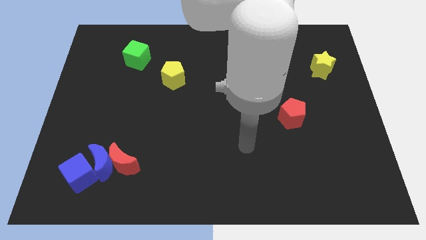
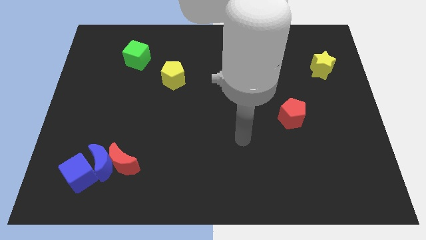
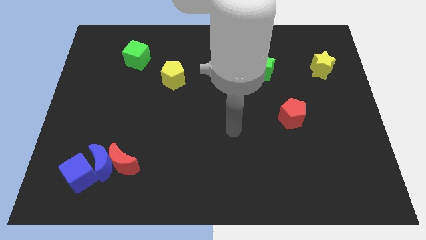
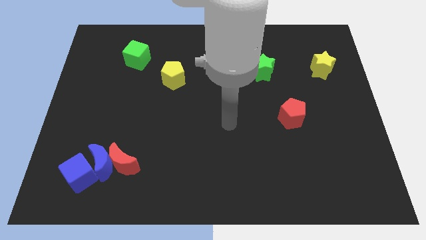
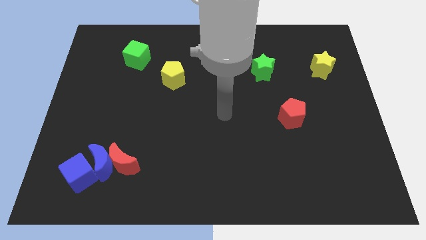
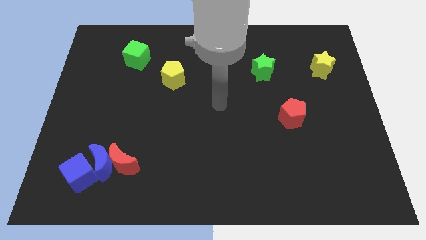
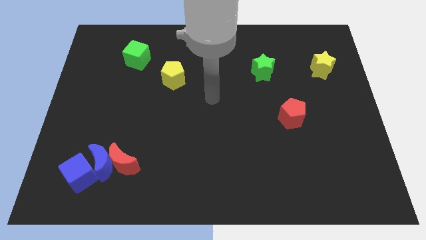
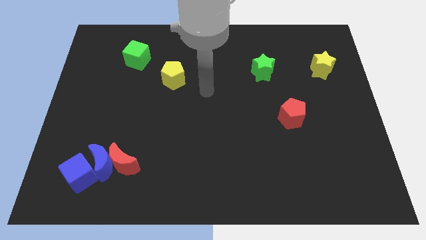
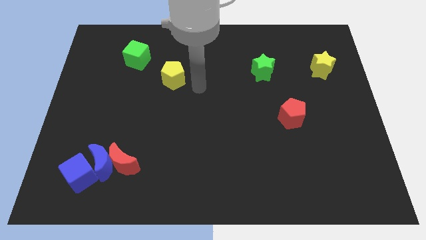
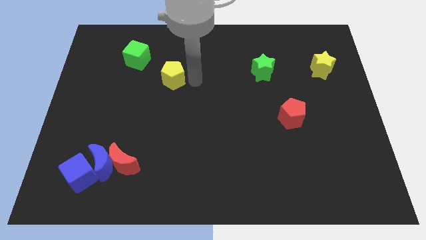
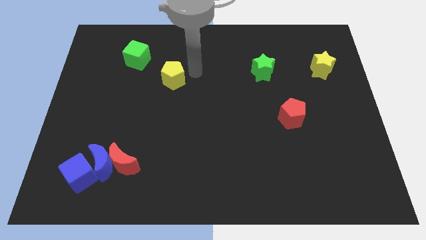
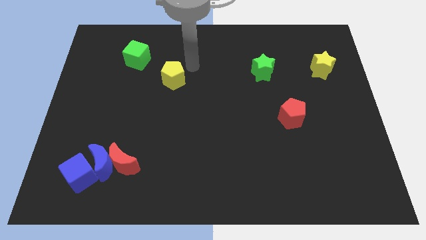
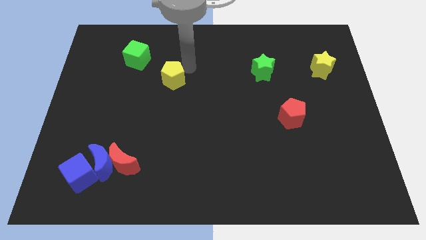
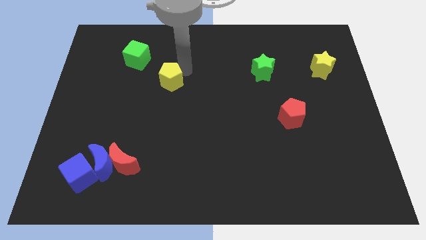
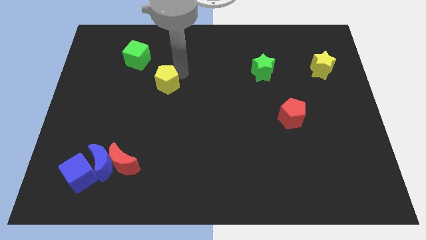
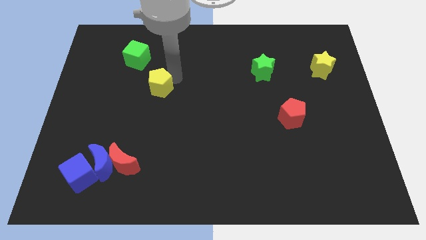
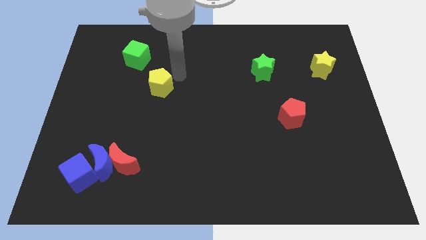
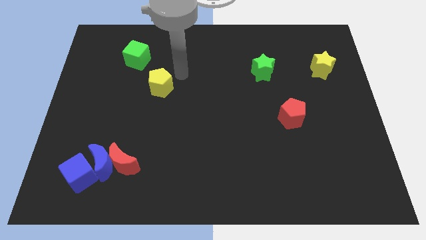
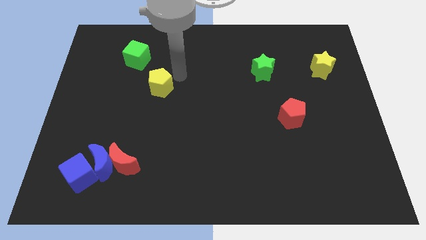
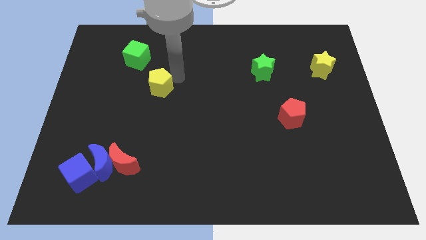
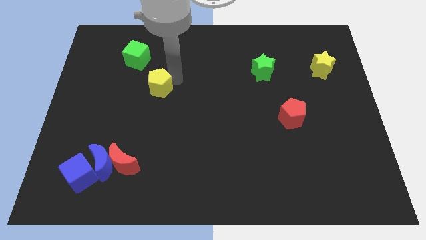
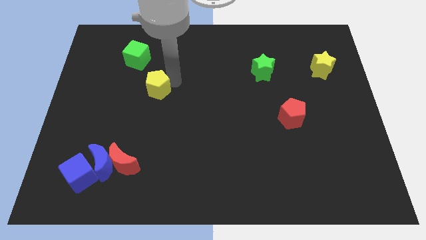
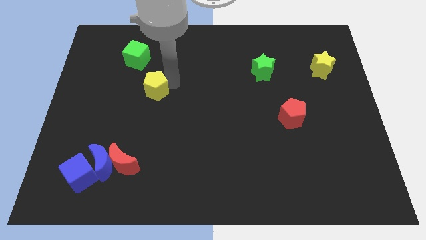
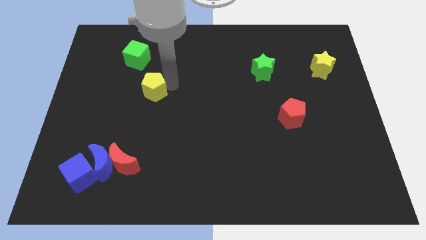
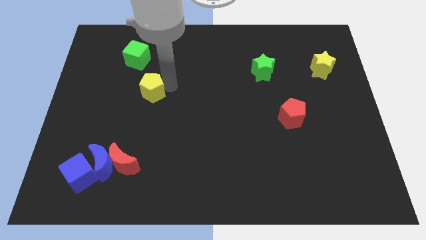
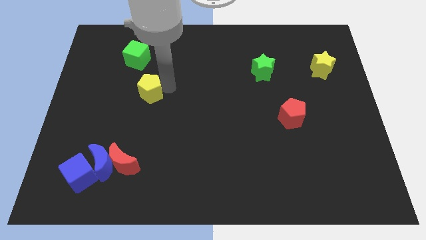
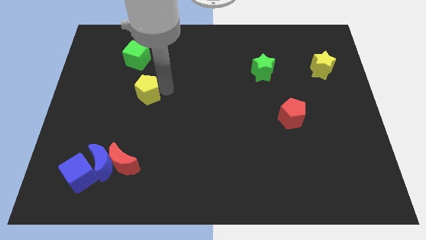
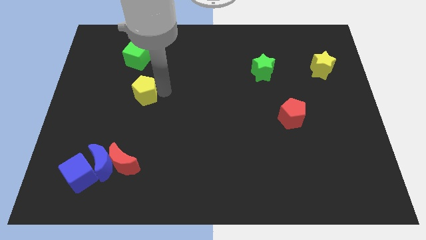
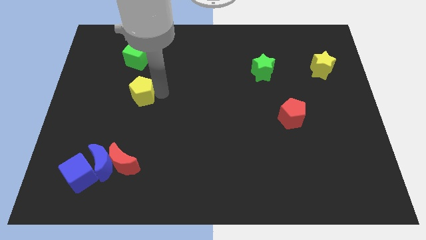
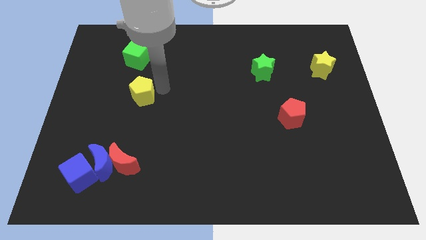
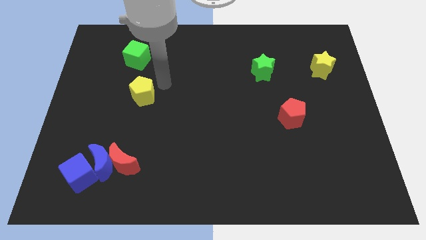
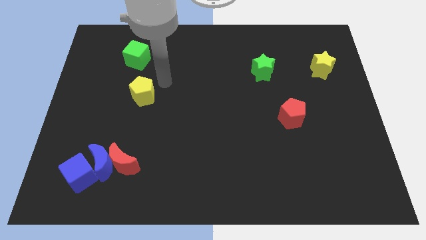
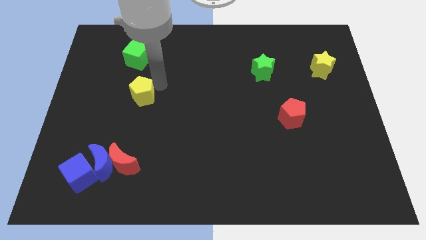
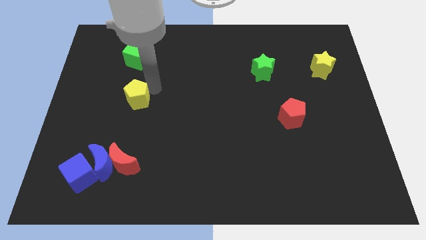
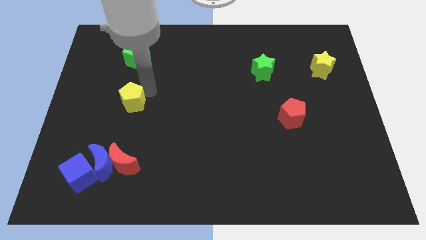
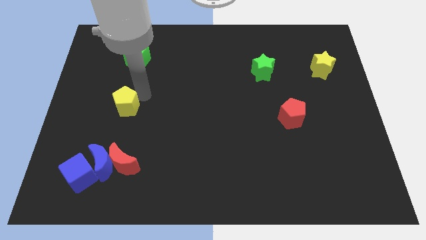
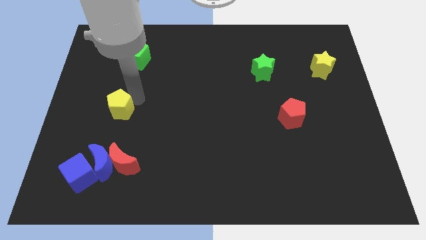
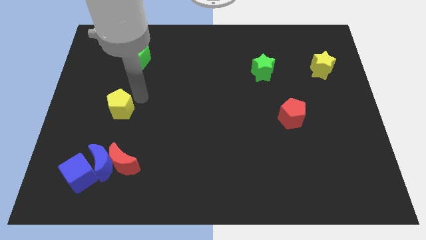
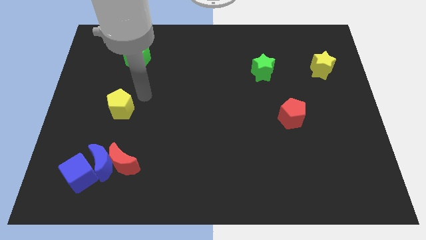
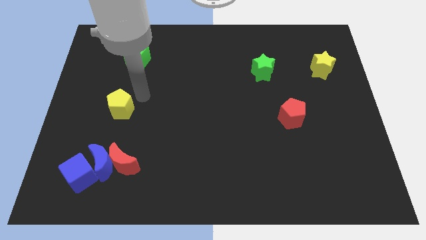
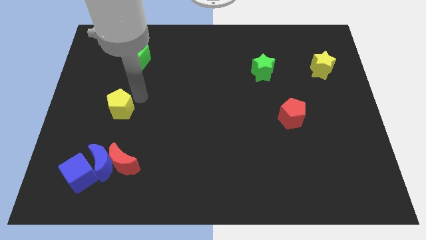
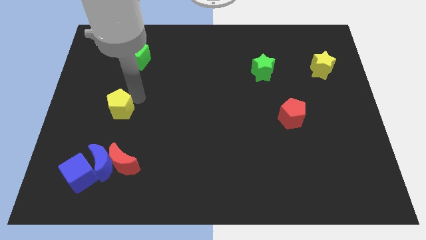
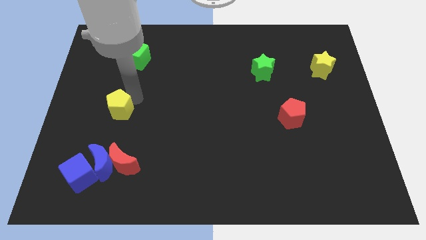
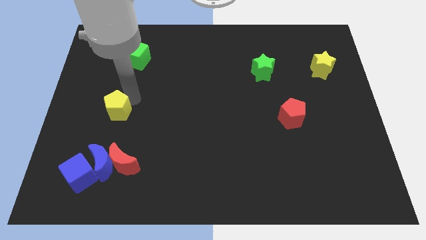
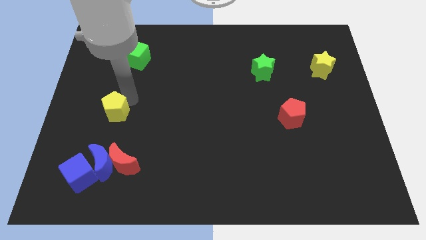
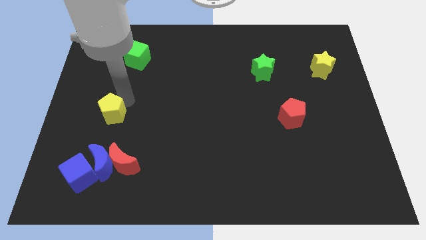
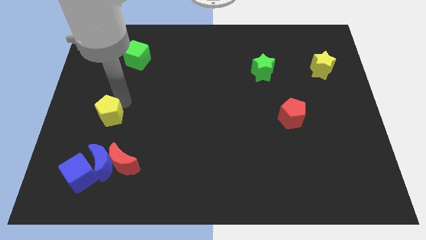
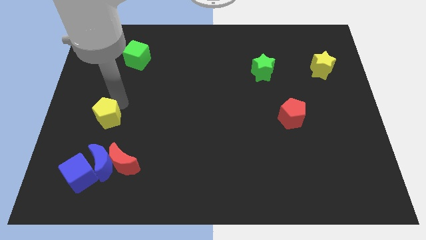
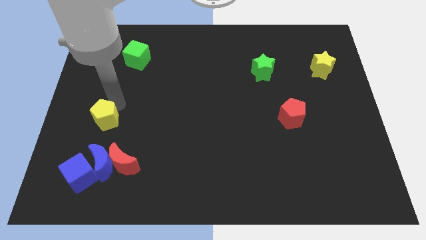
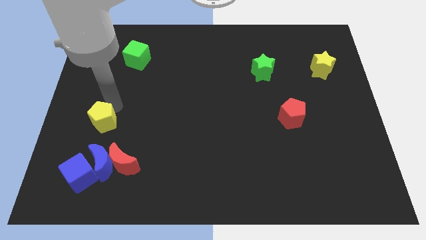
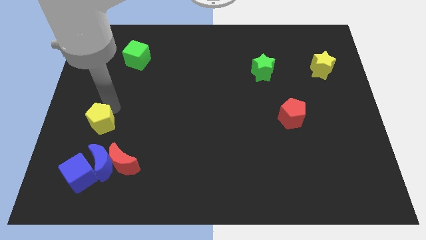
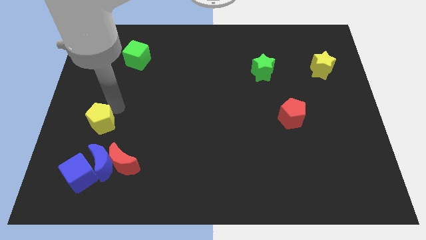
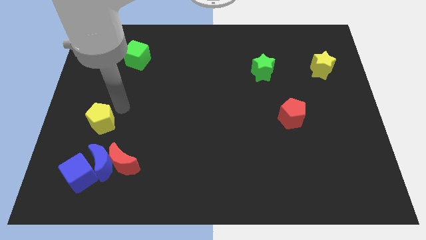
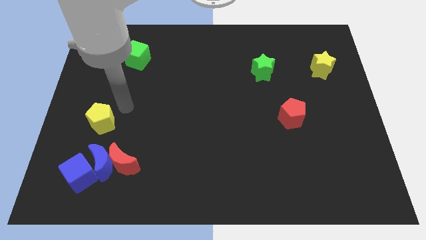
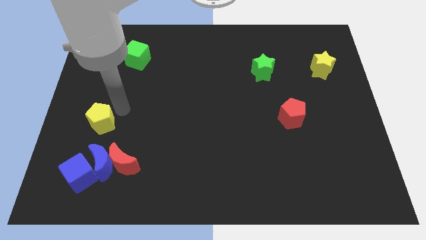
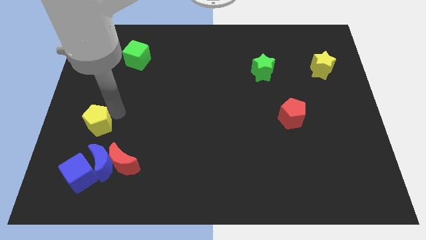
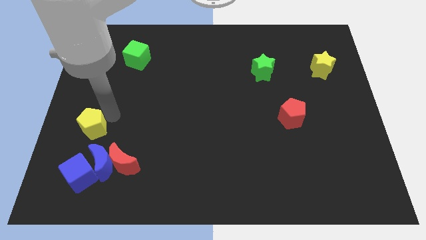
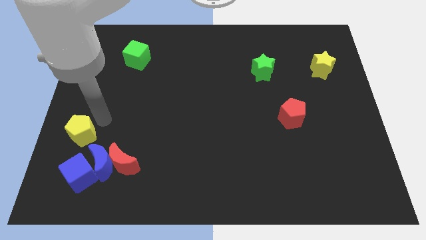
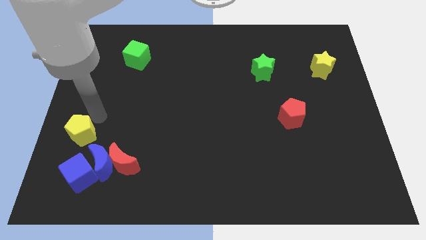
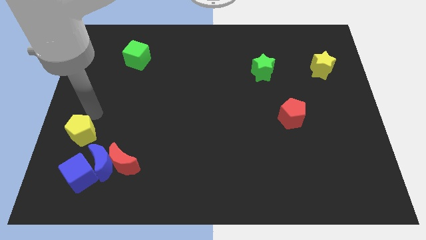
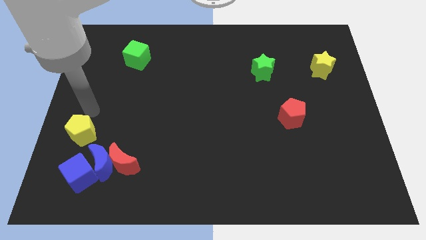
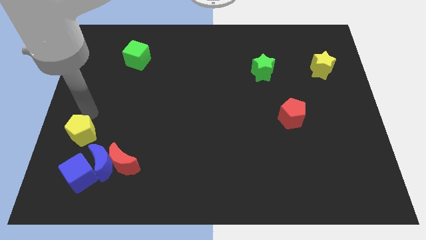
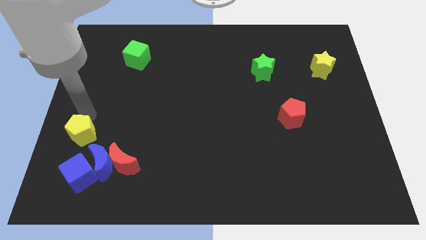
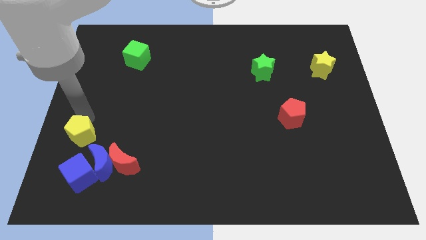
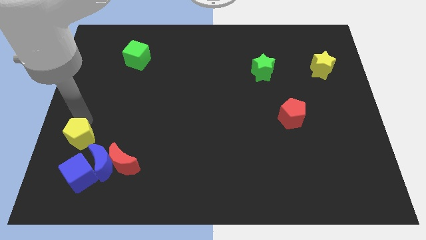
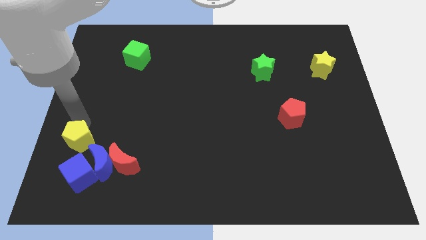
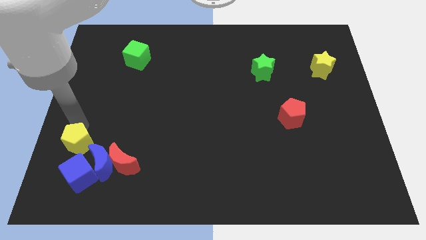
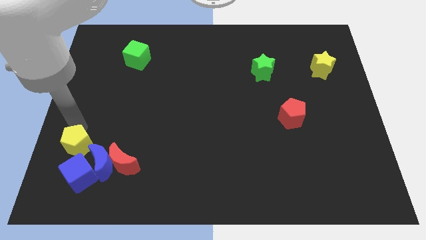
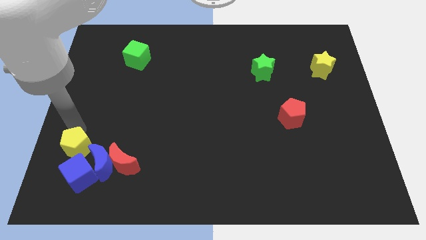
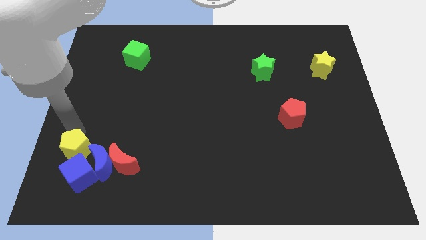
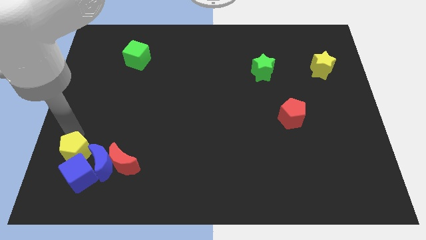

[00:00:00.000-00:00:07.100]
put the yellow pentagon next to the blue cube
